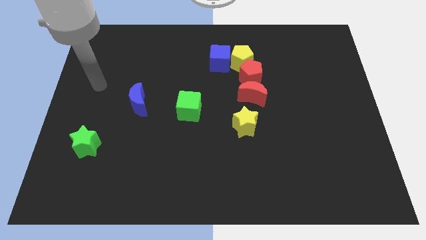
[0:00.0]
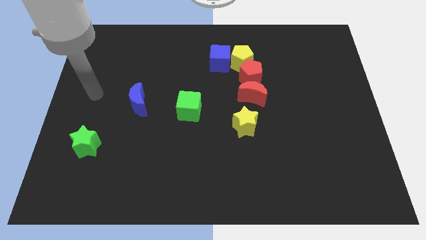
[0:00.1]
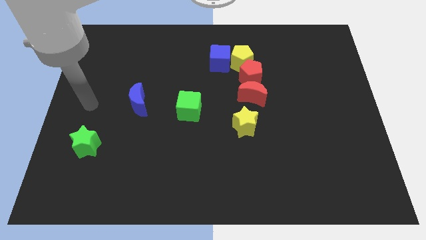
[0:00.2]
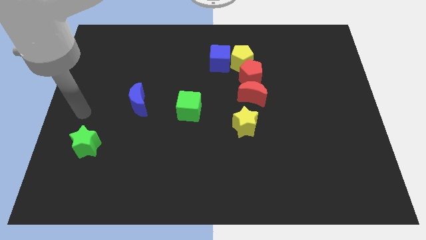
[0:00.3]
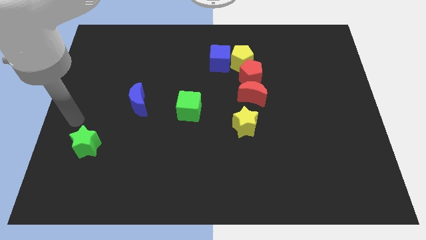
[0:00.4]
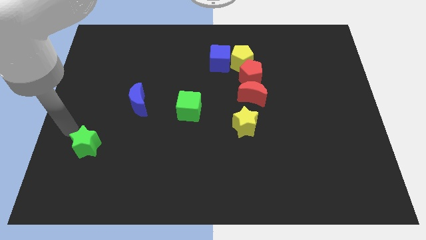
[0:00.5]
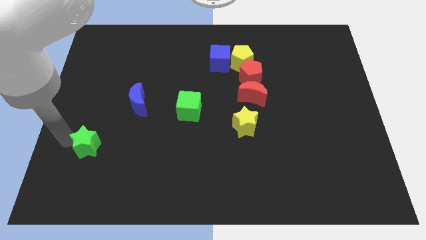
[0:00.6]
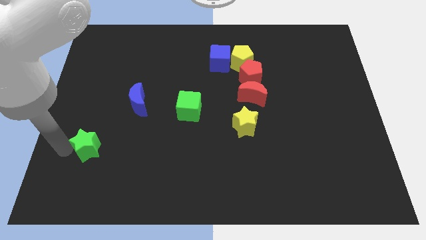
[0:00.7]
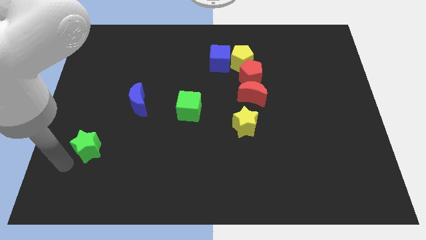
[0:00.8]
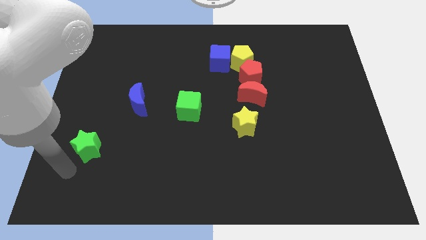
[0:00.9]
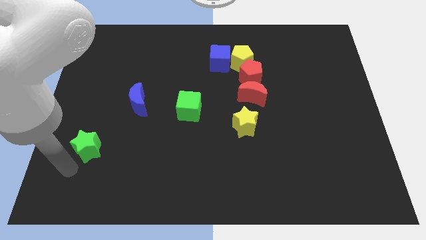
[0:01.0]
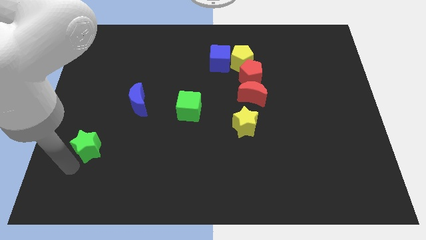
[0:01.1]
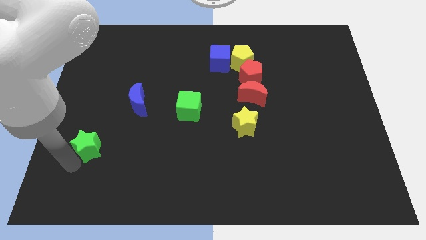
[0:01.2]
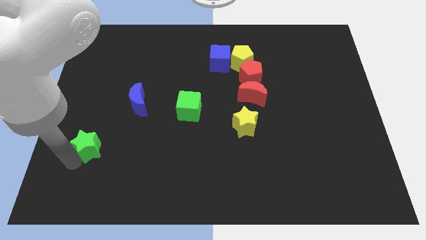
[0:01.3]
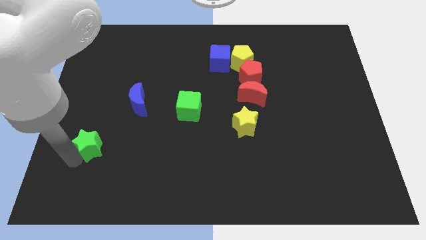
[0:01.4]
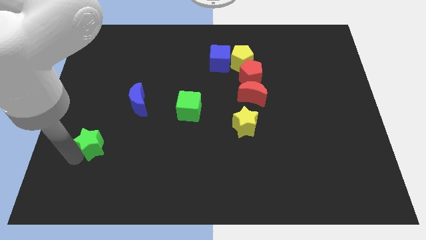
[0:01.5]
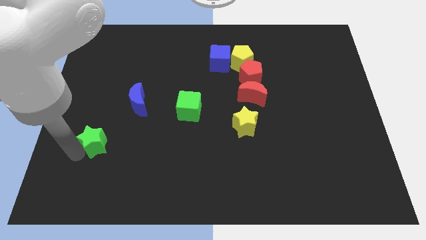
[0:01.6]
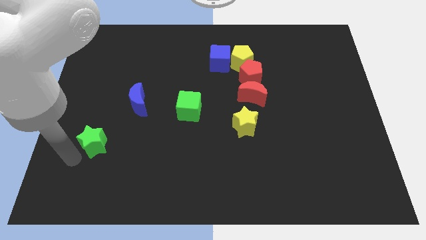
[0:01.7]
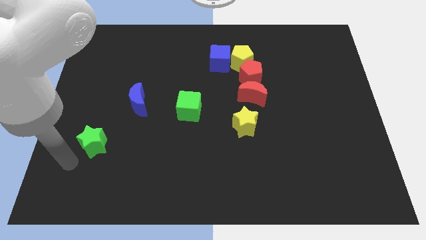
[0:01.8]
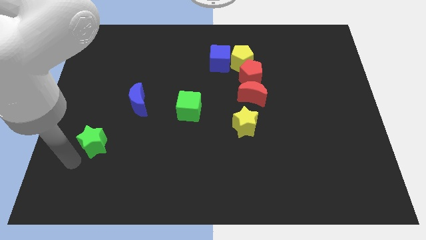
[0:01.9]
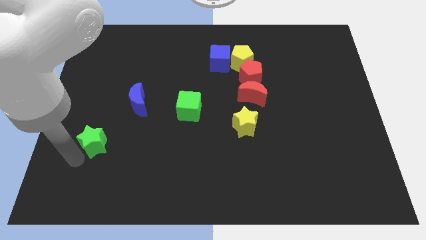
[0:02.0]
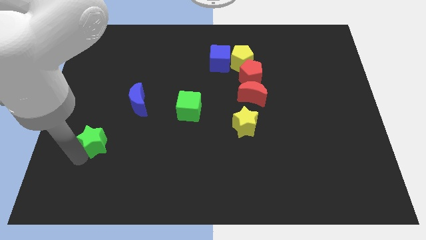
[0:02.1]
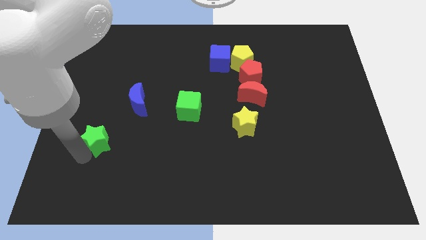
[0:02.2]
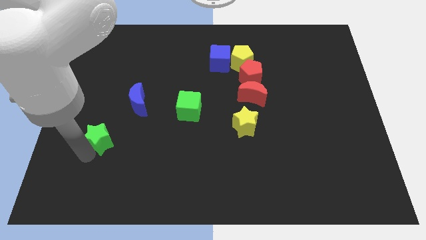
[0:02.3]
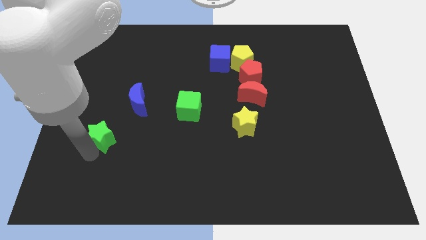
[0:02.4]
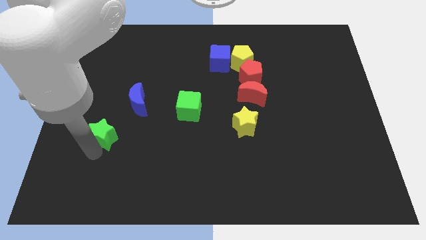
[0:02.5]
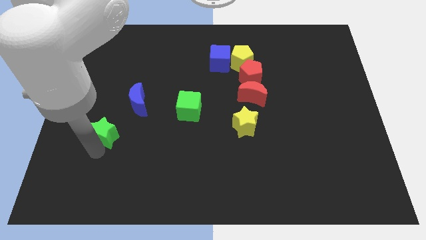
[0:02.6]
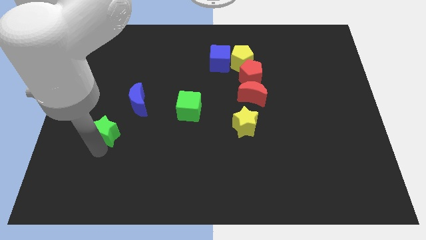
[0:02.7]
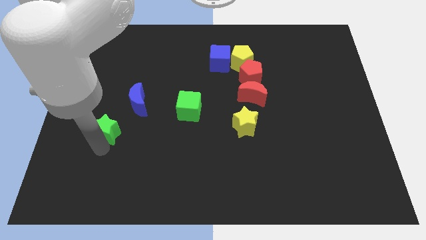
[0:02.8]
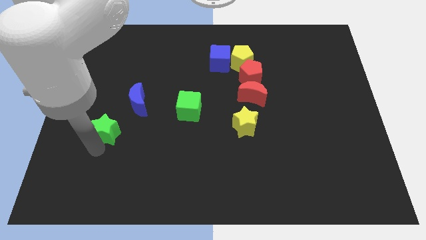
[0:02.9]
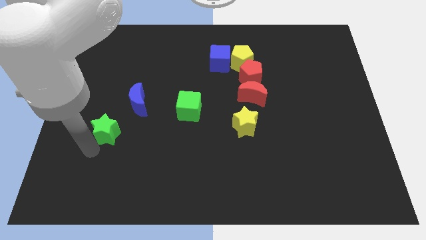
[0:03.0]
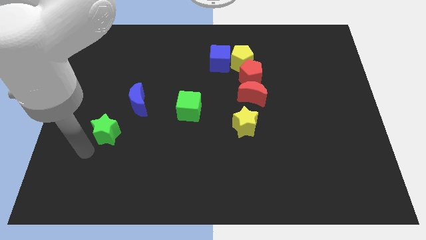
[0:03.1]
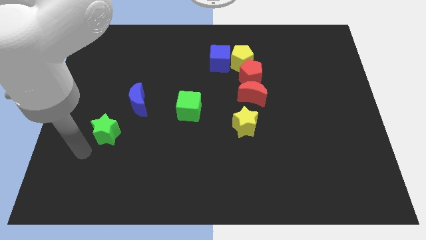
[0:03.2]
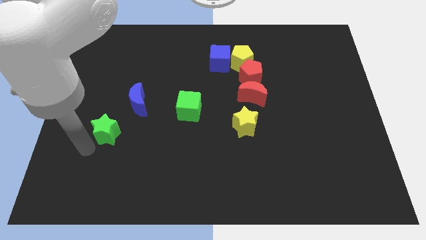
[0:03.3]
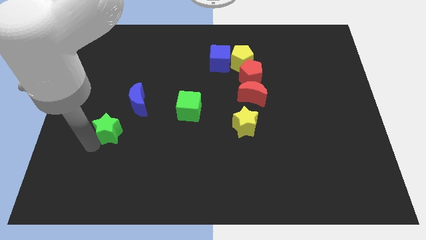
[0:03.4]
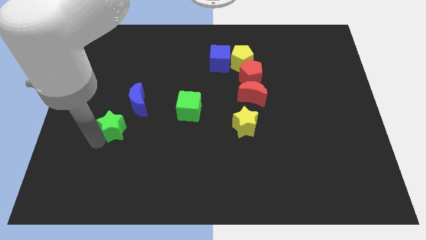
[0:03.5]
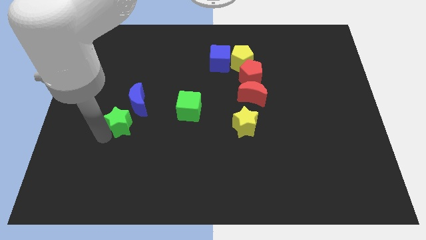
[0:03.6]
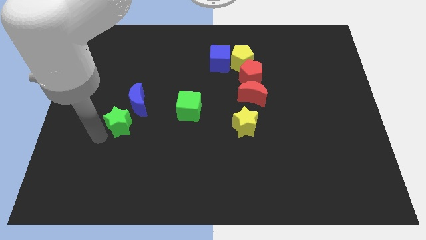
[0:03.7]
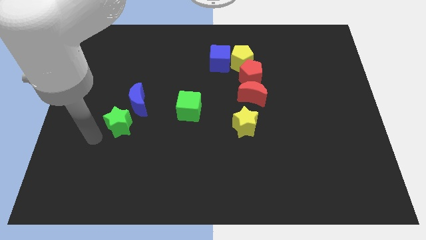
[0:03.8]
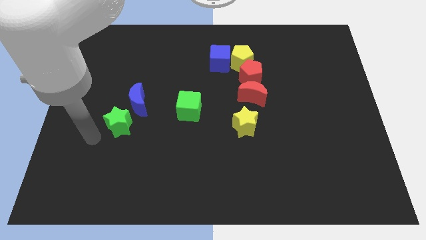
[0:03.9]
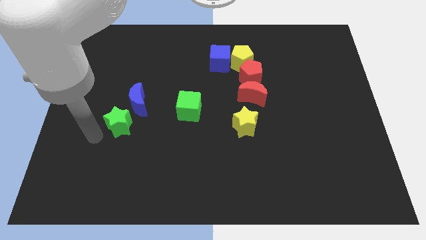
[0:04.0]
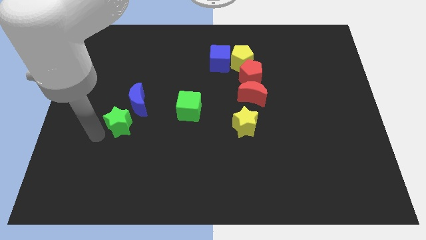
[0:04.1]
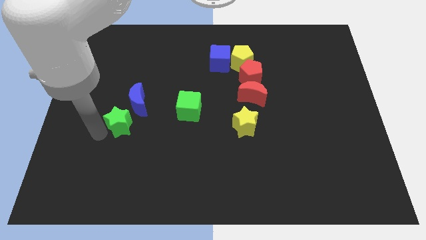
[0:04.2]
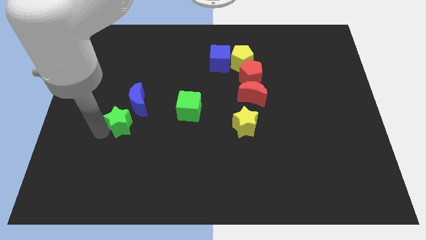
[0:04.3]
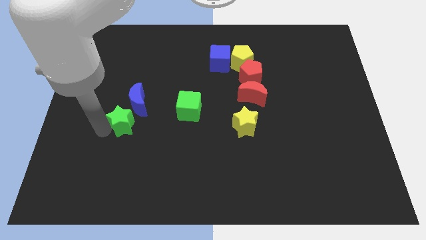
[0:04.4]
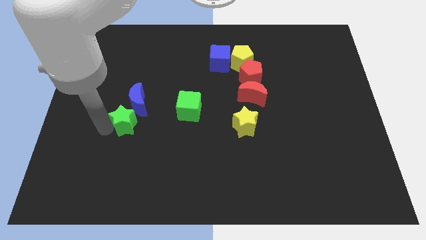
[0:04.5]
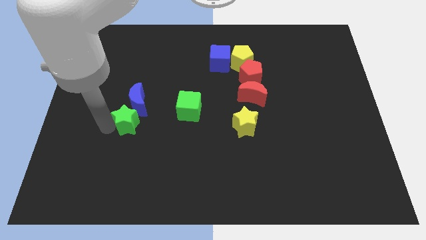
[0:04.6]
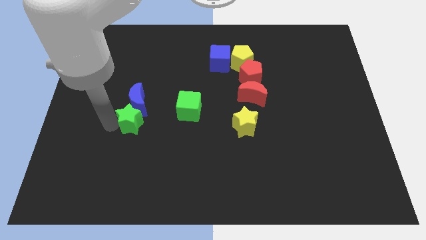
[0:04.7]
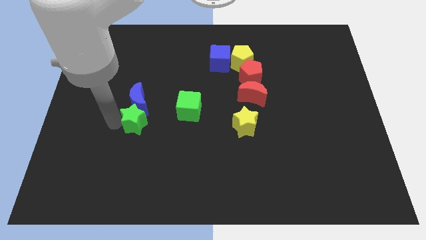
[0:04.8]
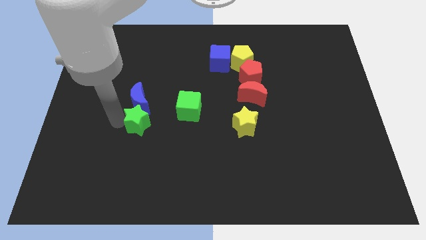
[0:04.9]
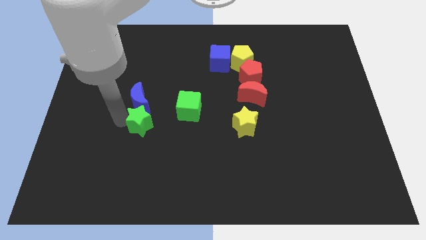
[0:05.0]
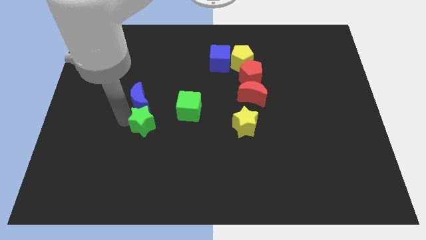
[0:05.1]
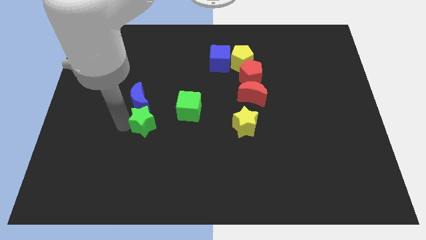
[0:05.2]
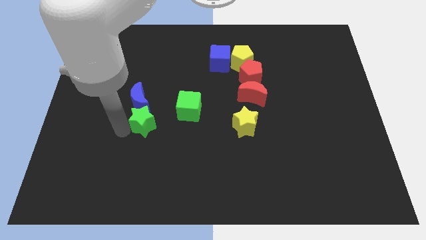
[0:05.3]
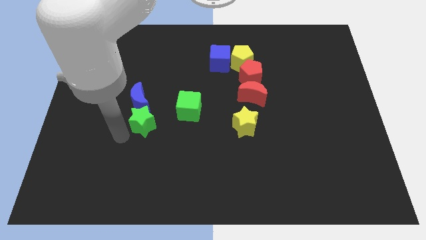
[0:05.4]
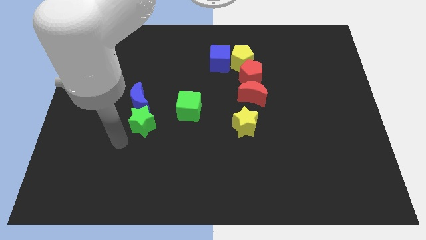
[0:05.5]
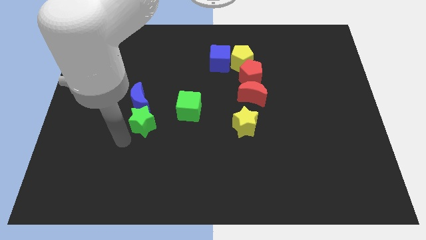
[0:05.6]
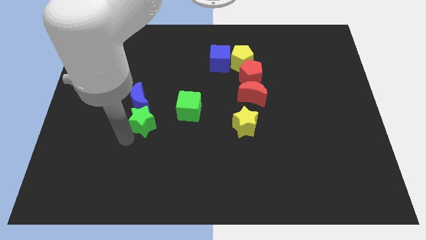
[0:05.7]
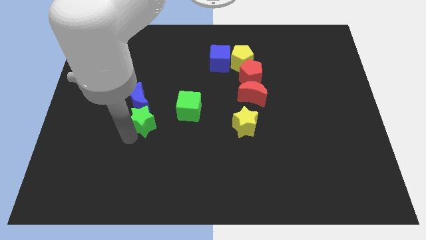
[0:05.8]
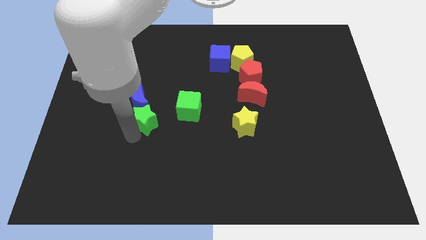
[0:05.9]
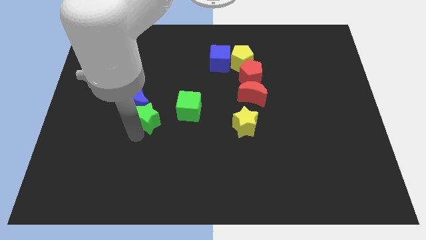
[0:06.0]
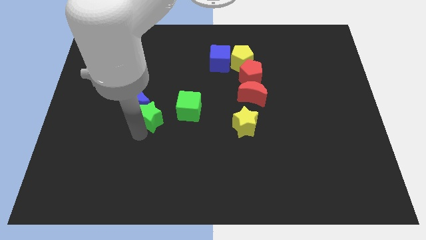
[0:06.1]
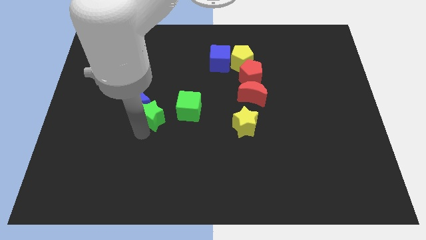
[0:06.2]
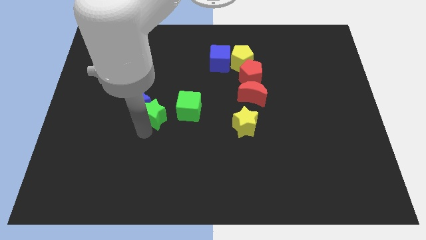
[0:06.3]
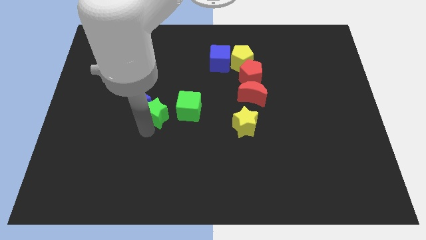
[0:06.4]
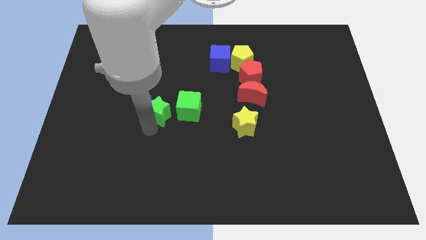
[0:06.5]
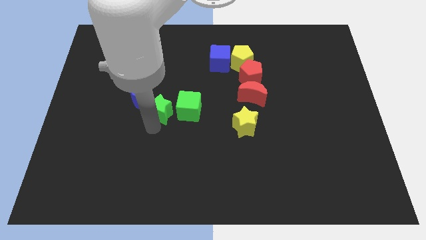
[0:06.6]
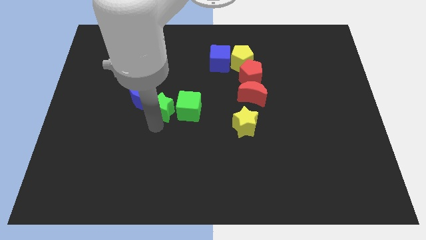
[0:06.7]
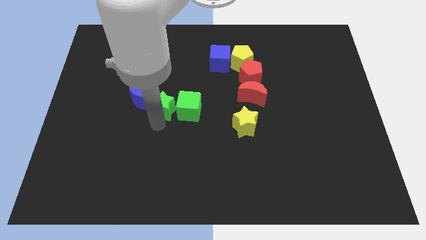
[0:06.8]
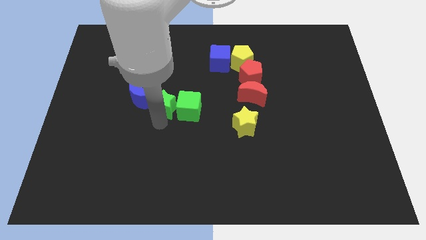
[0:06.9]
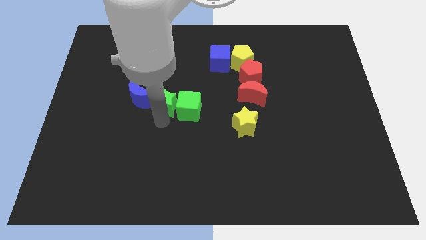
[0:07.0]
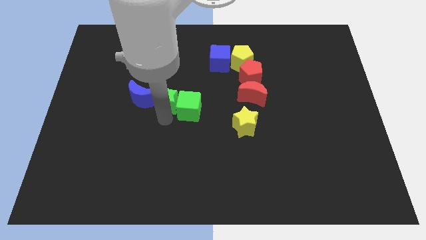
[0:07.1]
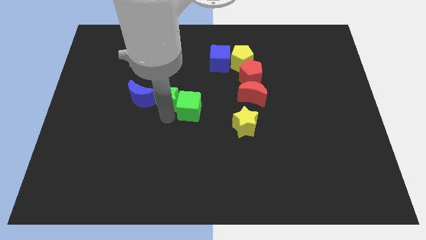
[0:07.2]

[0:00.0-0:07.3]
move the green star upwards and to the right diagonally

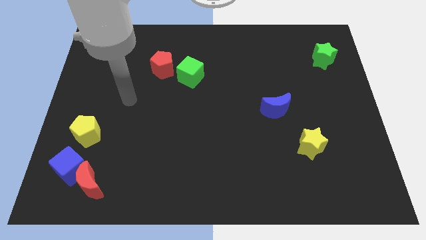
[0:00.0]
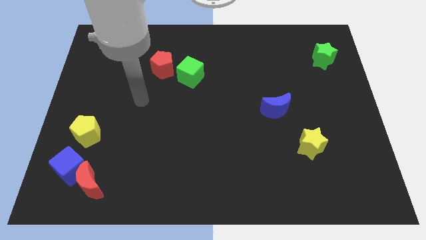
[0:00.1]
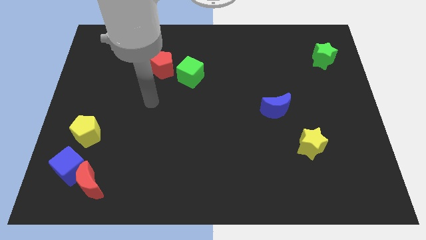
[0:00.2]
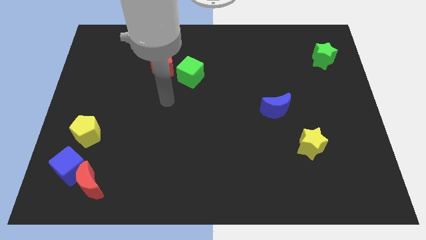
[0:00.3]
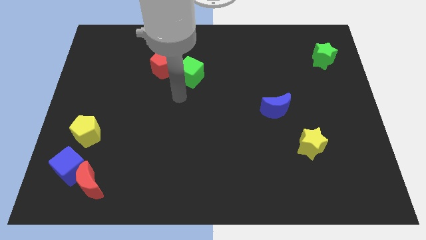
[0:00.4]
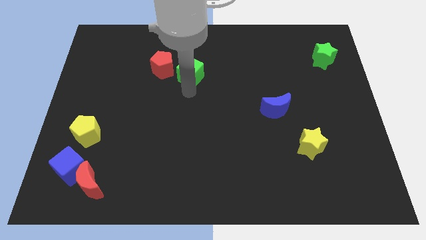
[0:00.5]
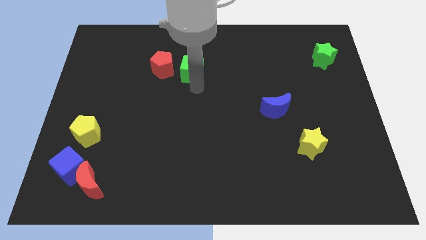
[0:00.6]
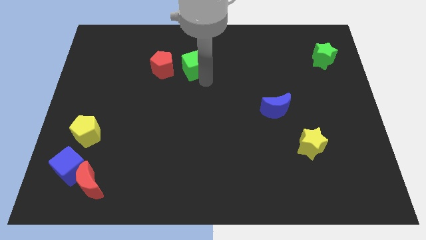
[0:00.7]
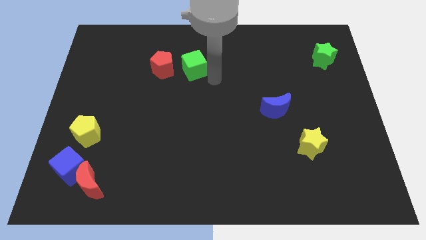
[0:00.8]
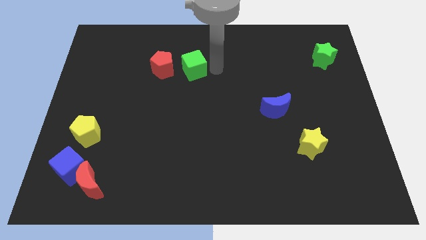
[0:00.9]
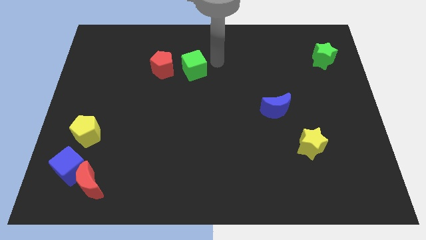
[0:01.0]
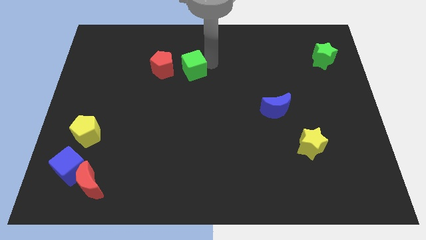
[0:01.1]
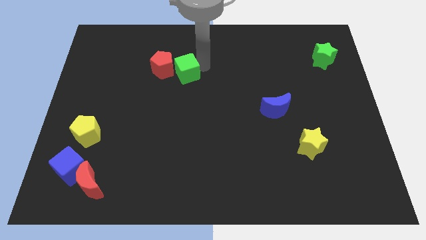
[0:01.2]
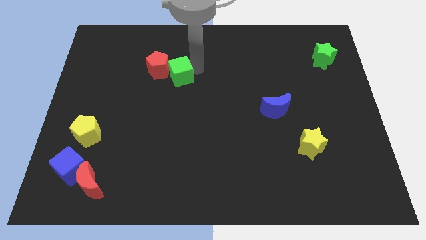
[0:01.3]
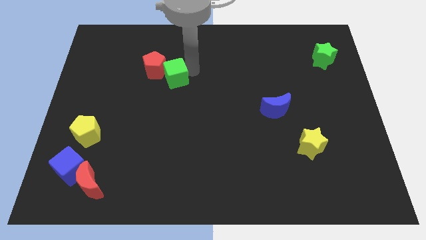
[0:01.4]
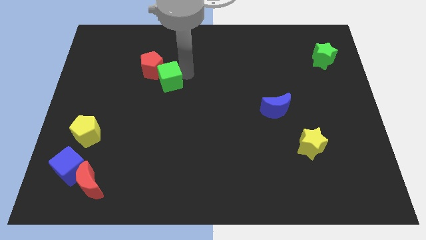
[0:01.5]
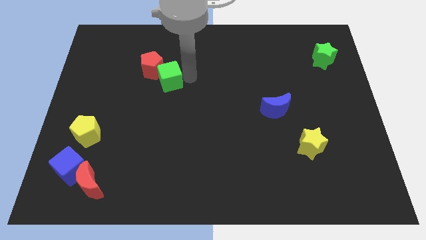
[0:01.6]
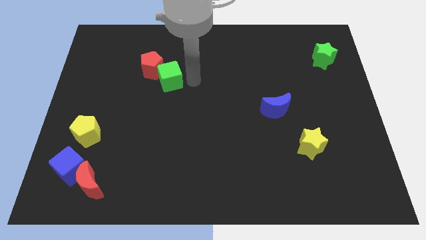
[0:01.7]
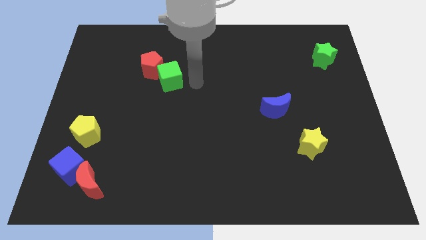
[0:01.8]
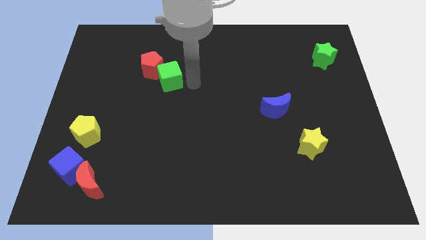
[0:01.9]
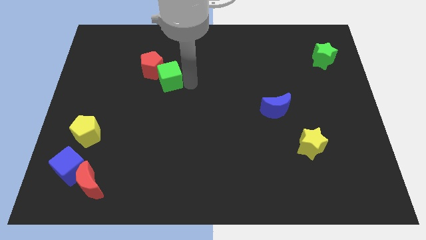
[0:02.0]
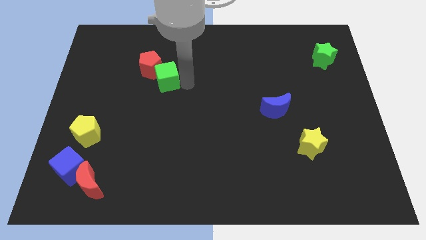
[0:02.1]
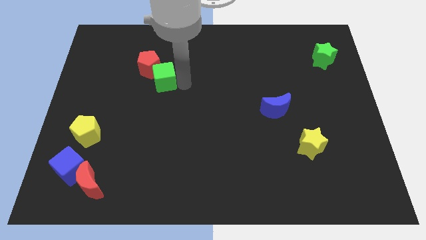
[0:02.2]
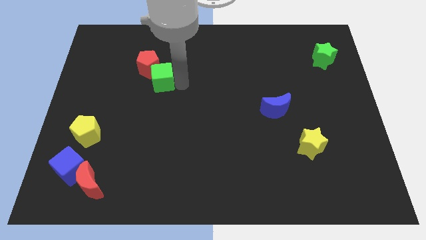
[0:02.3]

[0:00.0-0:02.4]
slightly move the green cube to the left
